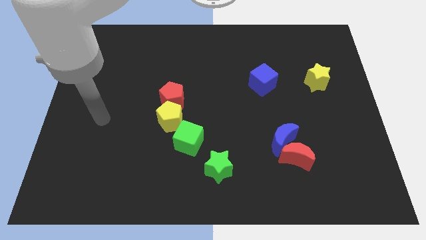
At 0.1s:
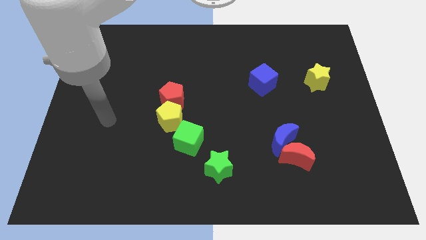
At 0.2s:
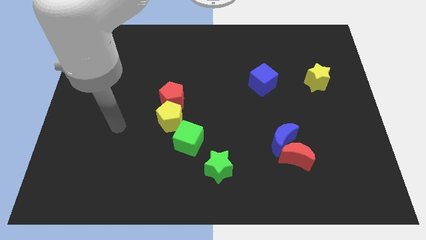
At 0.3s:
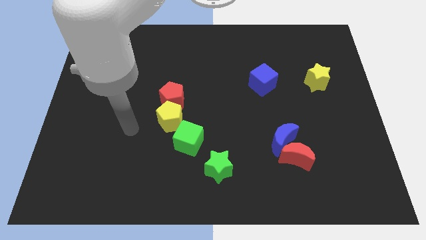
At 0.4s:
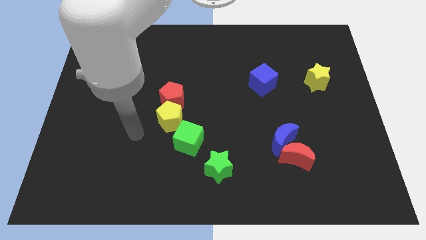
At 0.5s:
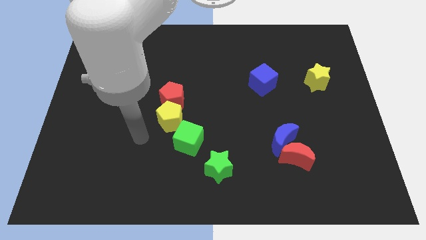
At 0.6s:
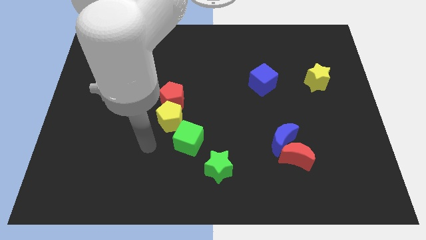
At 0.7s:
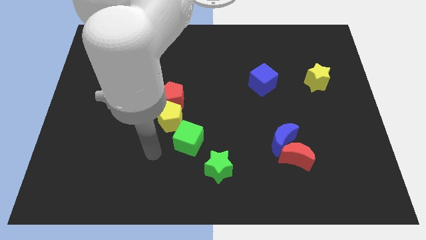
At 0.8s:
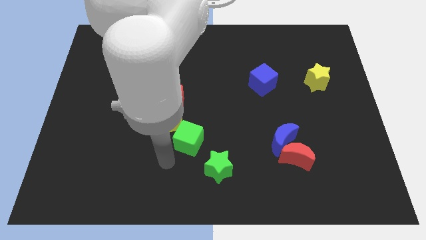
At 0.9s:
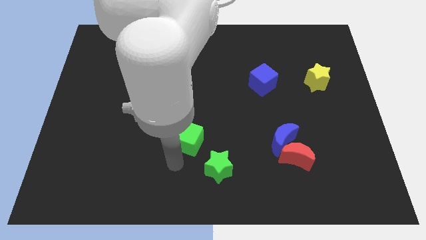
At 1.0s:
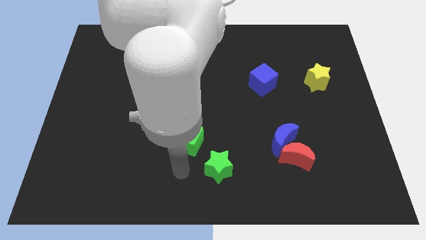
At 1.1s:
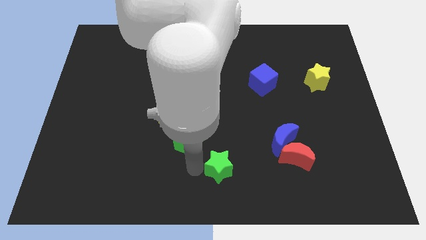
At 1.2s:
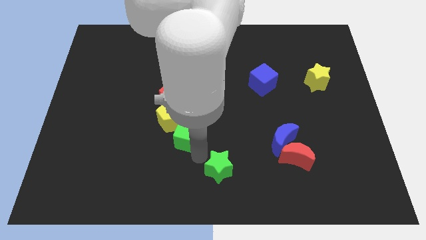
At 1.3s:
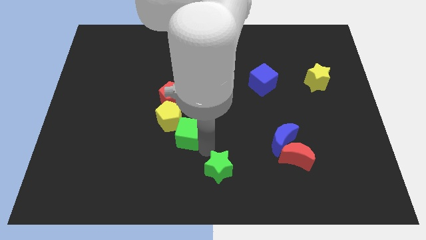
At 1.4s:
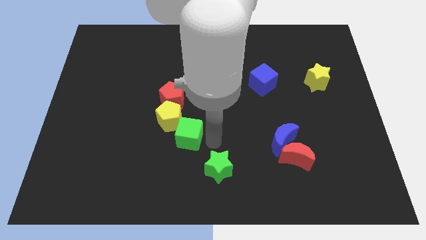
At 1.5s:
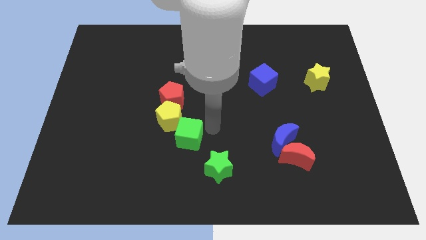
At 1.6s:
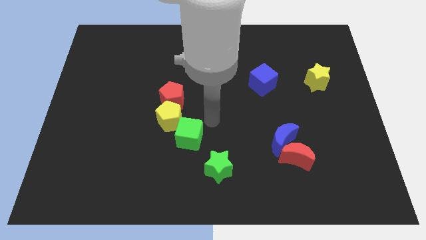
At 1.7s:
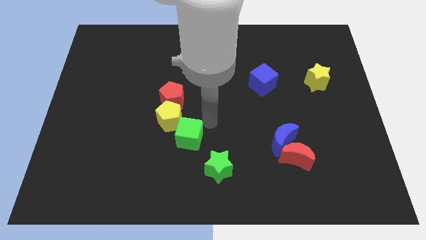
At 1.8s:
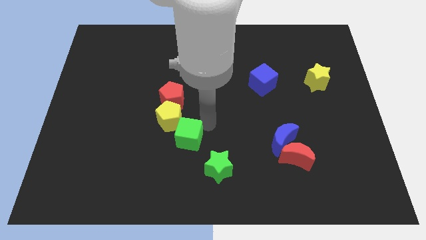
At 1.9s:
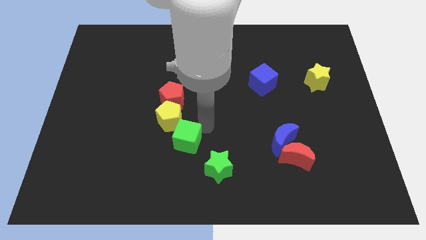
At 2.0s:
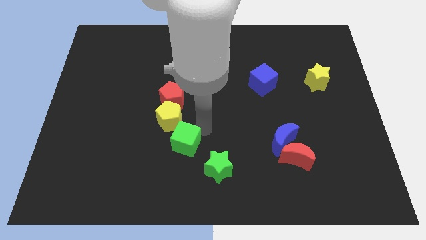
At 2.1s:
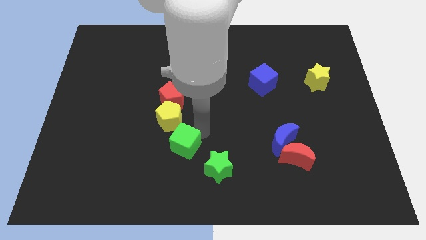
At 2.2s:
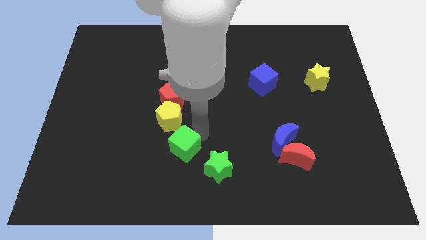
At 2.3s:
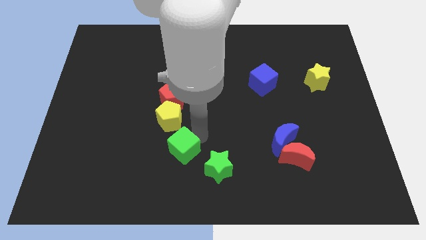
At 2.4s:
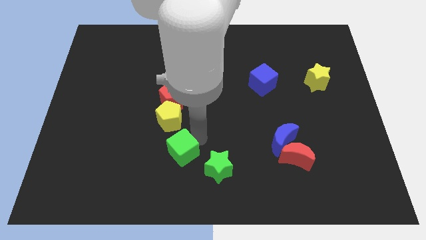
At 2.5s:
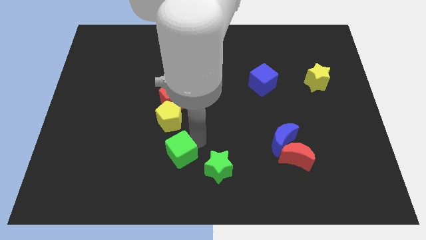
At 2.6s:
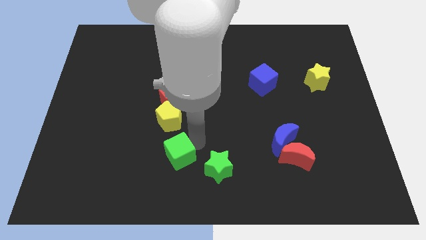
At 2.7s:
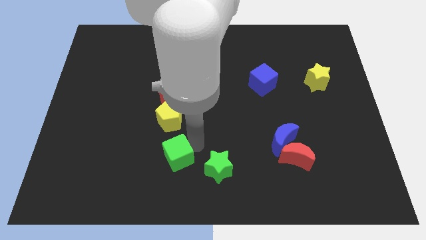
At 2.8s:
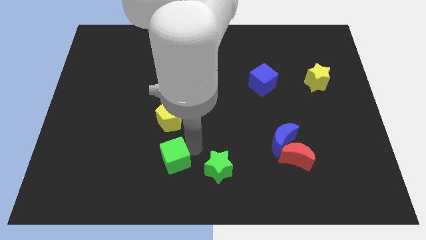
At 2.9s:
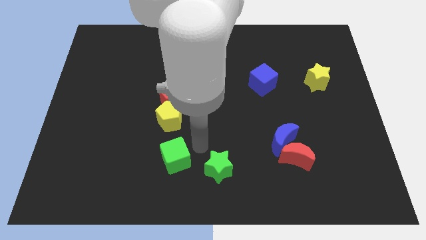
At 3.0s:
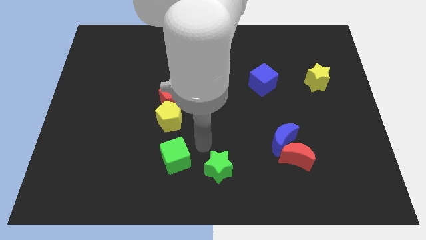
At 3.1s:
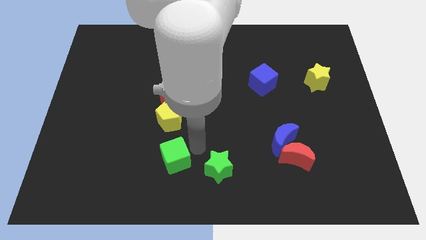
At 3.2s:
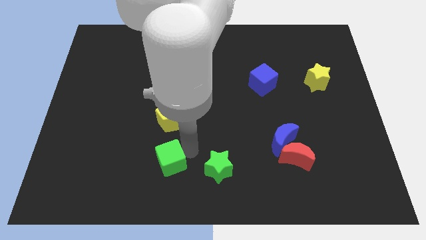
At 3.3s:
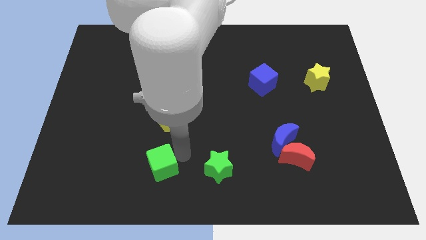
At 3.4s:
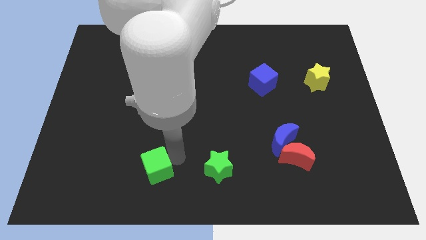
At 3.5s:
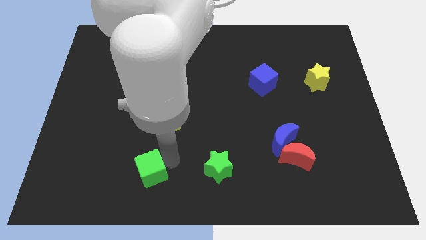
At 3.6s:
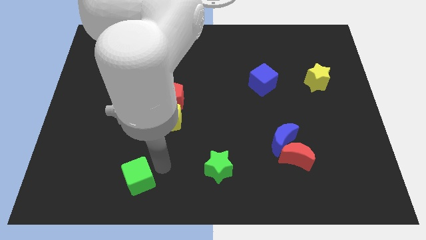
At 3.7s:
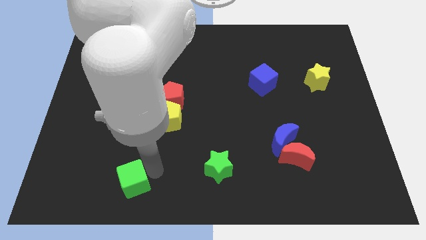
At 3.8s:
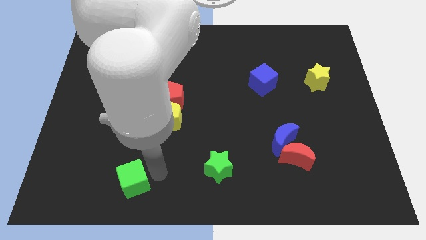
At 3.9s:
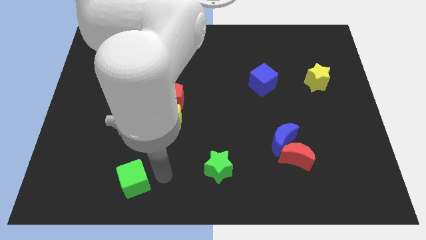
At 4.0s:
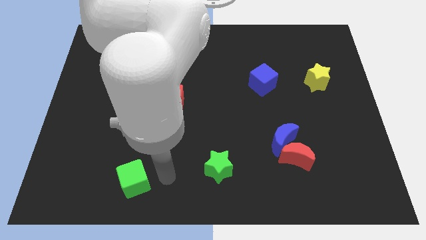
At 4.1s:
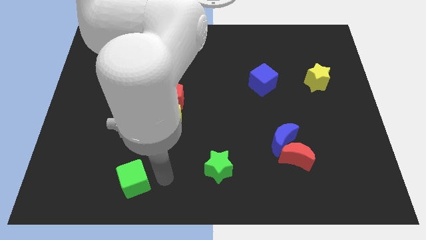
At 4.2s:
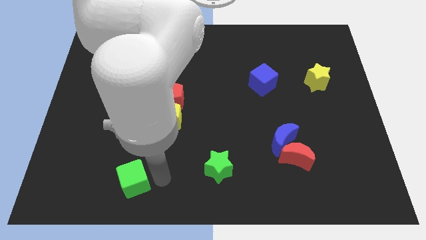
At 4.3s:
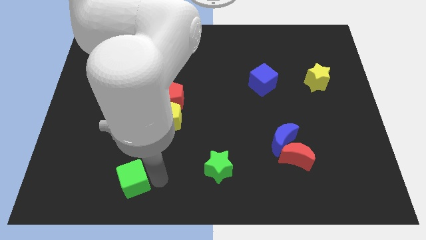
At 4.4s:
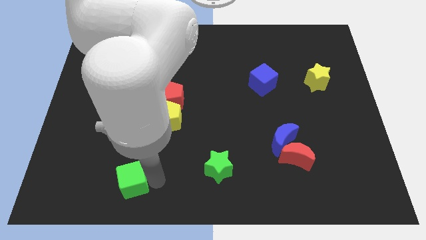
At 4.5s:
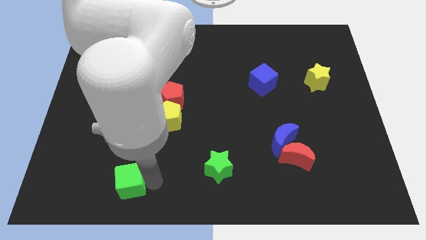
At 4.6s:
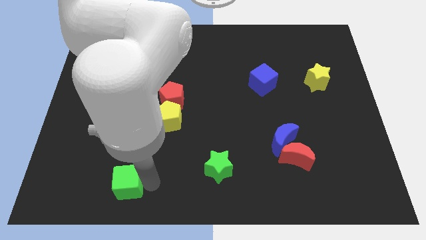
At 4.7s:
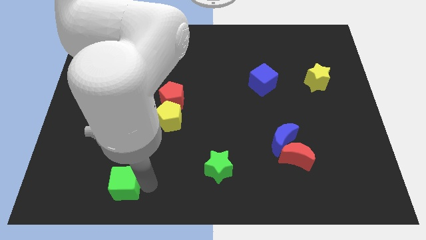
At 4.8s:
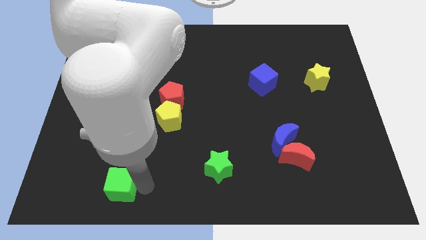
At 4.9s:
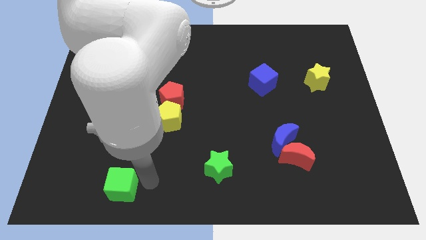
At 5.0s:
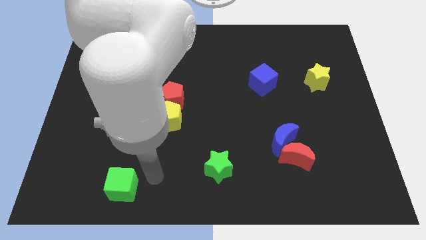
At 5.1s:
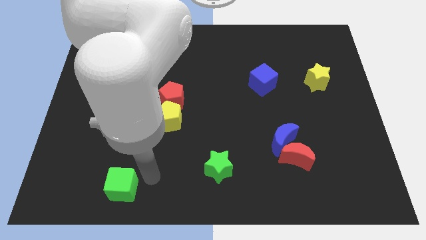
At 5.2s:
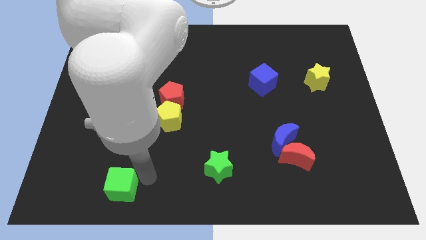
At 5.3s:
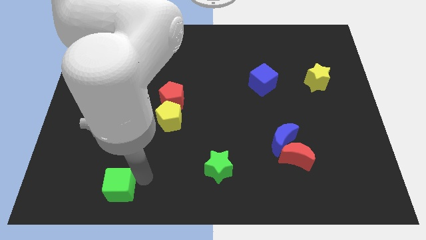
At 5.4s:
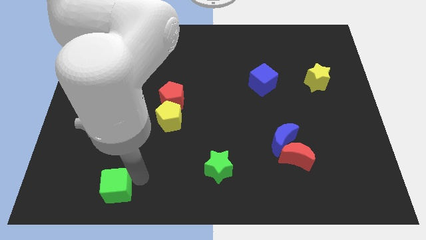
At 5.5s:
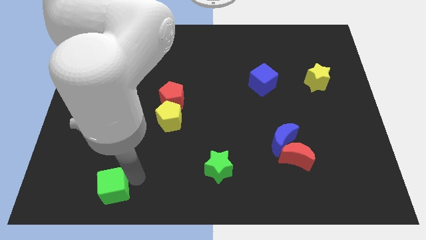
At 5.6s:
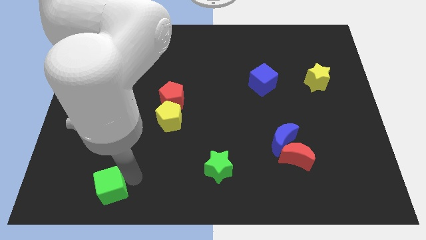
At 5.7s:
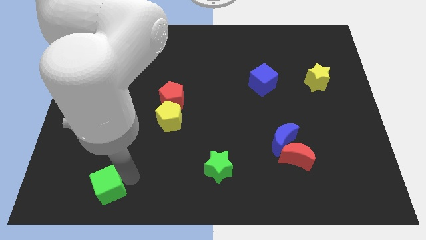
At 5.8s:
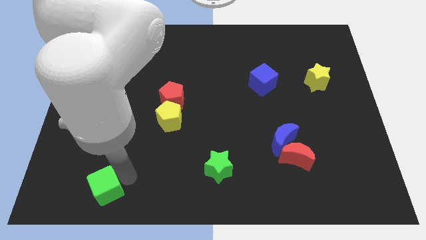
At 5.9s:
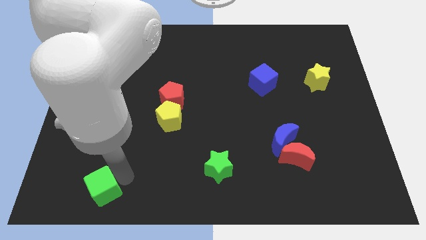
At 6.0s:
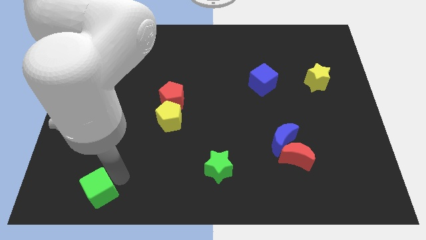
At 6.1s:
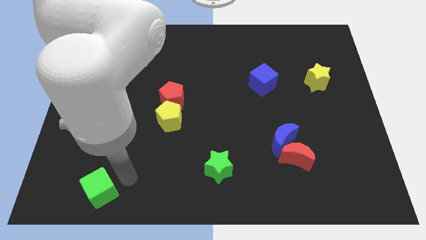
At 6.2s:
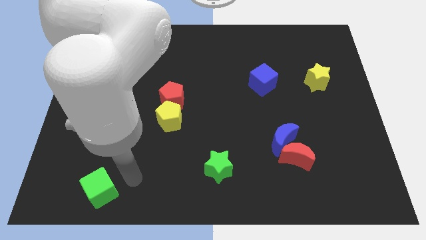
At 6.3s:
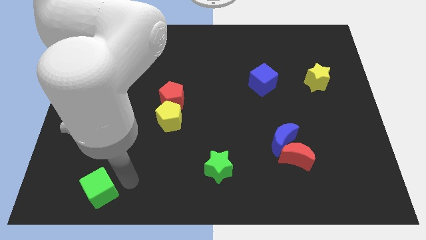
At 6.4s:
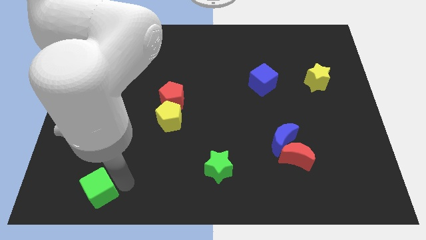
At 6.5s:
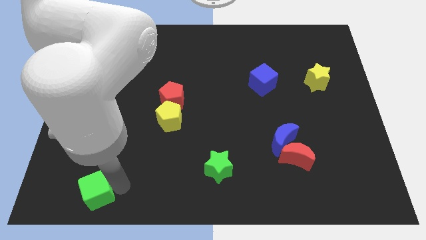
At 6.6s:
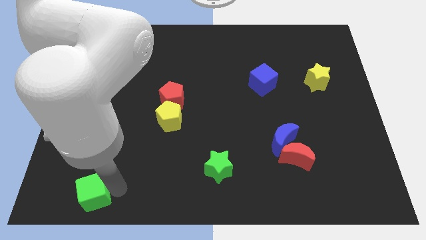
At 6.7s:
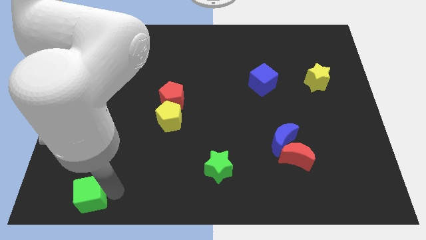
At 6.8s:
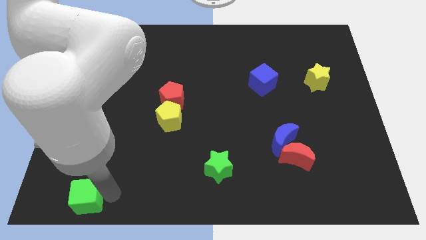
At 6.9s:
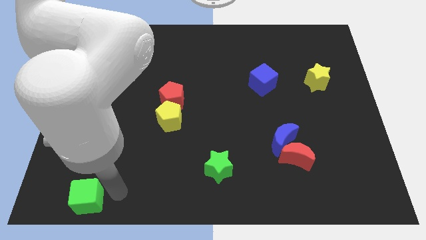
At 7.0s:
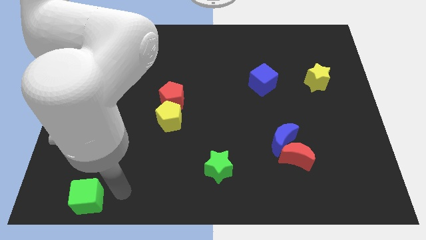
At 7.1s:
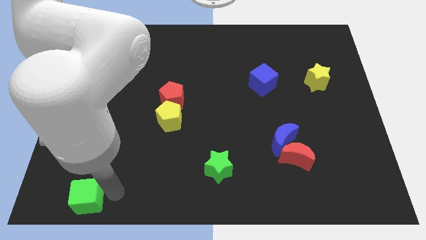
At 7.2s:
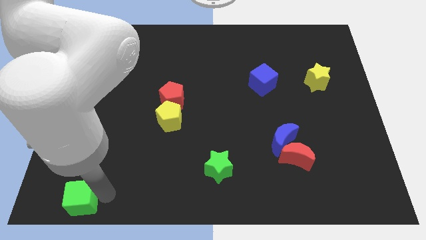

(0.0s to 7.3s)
put the green cube to the bottom left
